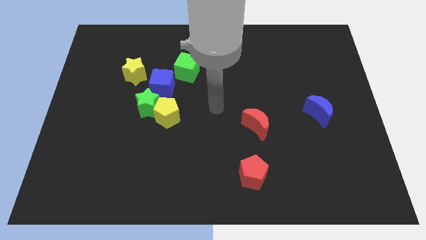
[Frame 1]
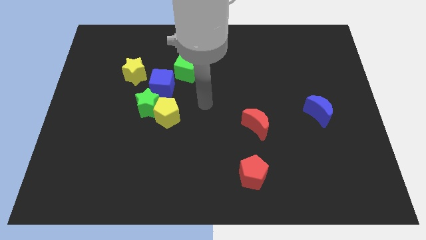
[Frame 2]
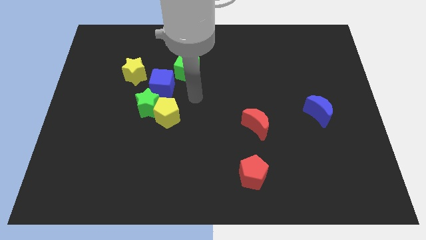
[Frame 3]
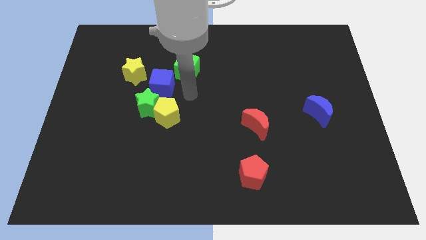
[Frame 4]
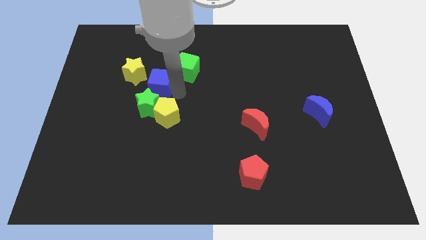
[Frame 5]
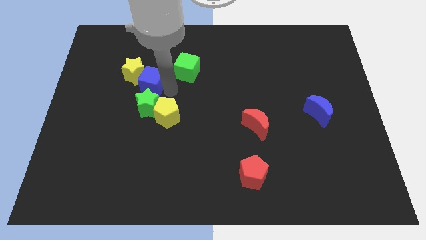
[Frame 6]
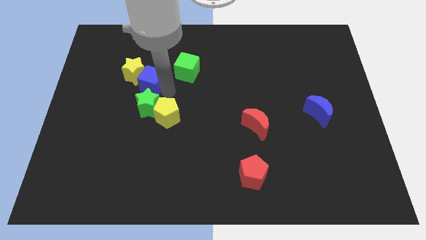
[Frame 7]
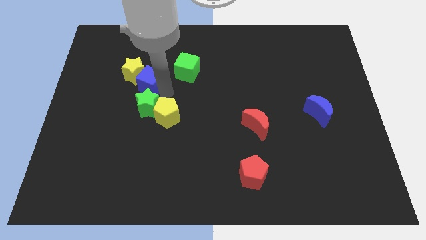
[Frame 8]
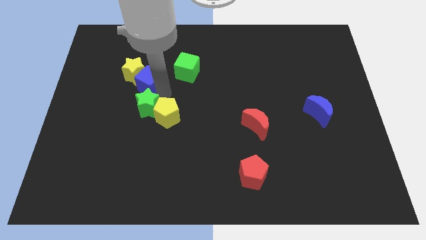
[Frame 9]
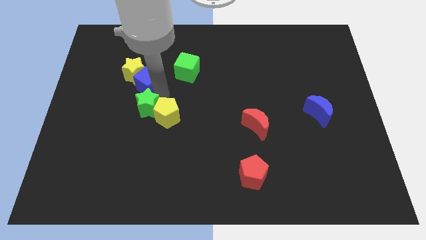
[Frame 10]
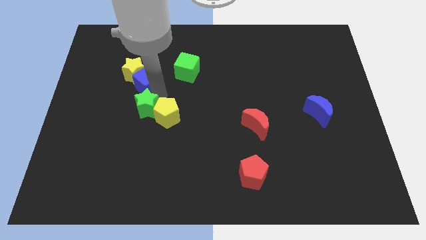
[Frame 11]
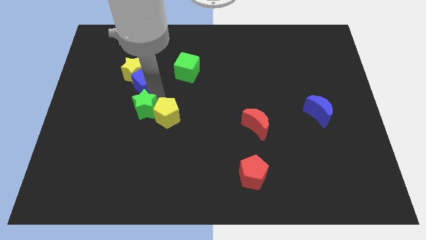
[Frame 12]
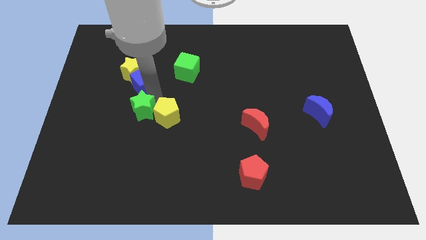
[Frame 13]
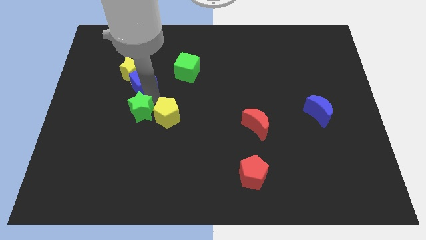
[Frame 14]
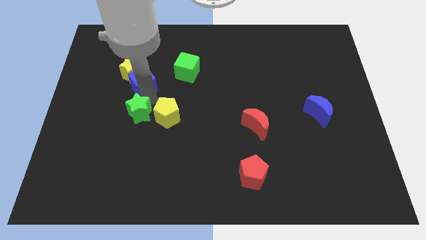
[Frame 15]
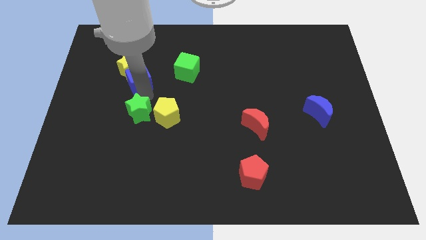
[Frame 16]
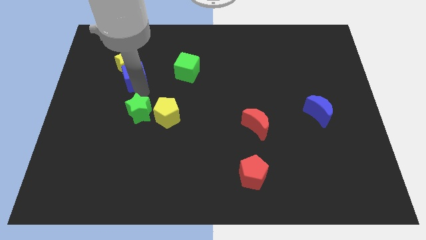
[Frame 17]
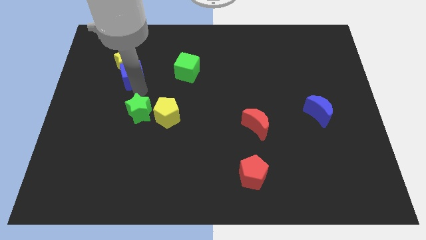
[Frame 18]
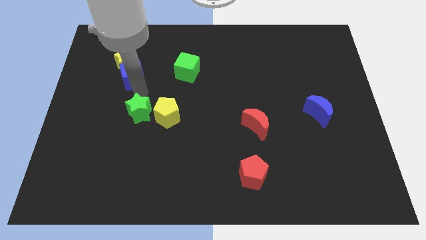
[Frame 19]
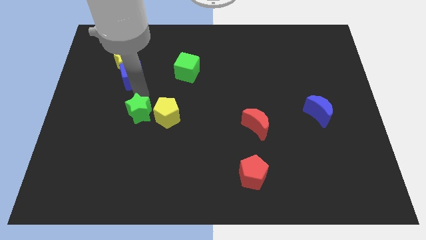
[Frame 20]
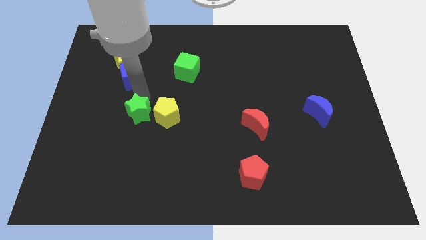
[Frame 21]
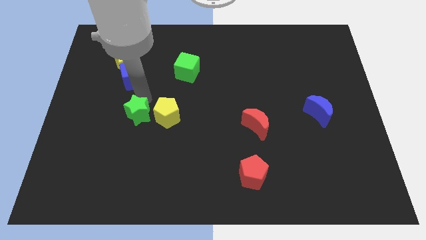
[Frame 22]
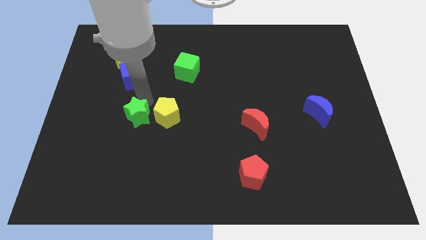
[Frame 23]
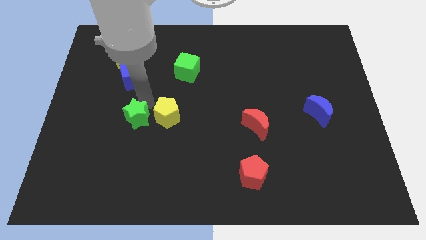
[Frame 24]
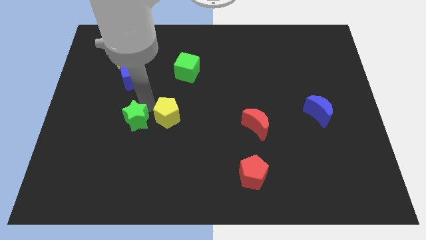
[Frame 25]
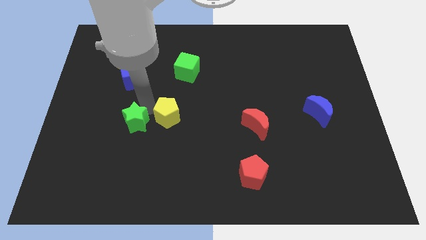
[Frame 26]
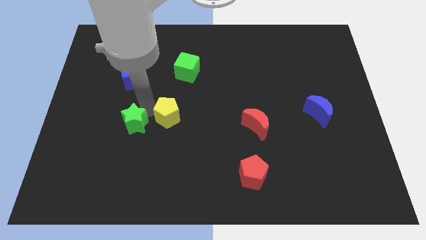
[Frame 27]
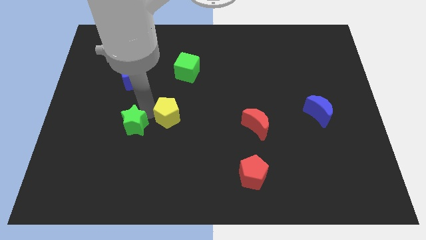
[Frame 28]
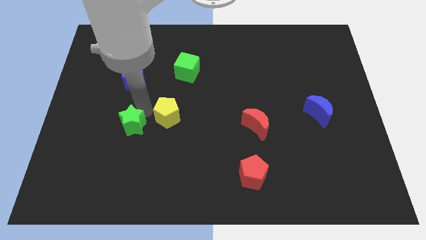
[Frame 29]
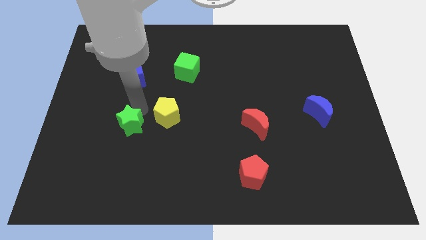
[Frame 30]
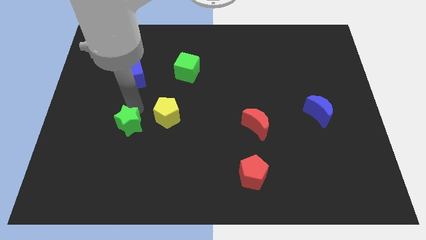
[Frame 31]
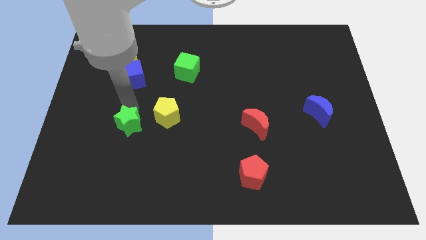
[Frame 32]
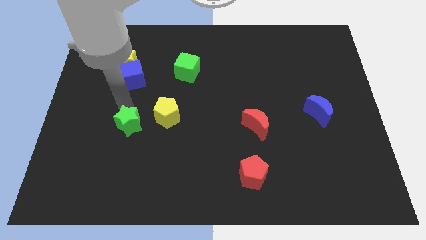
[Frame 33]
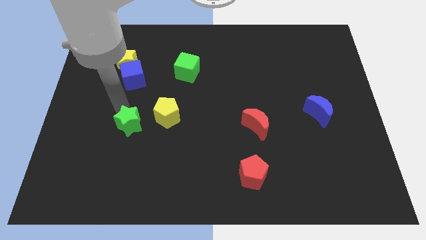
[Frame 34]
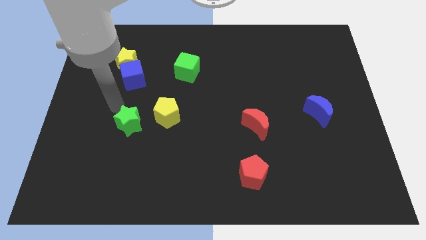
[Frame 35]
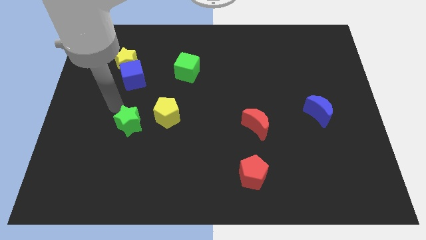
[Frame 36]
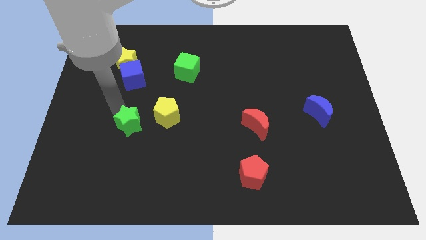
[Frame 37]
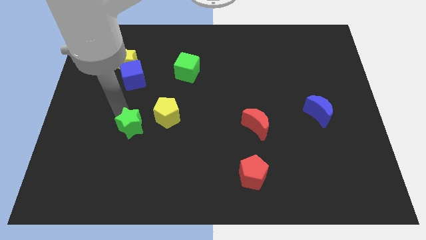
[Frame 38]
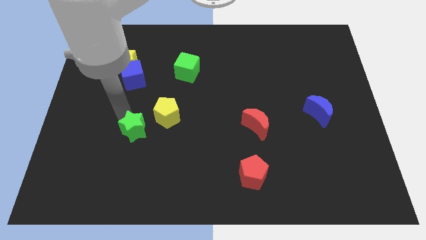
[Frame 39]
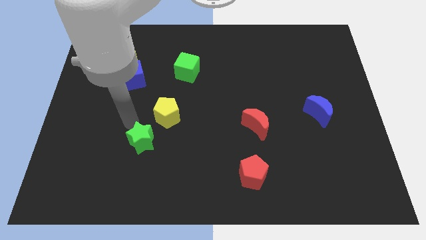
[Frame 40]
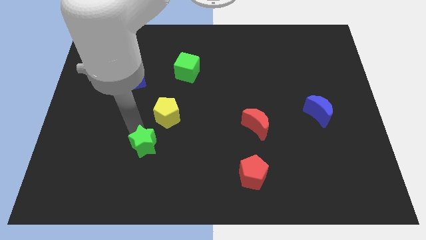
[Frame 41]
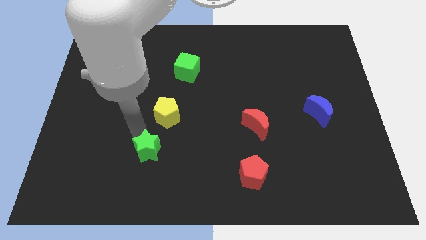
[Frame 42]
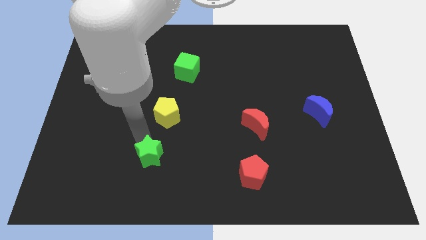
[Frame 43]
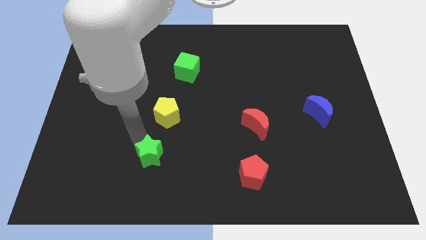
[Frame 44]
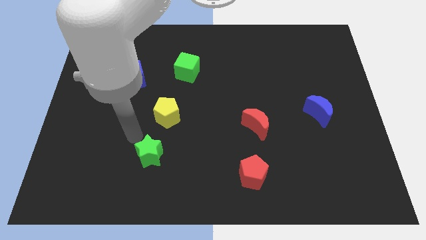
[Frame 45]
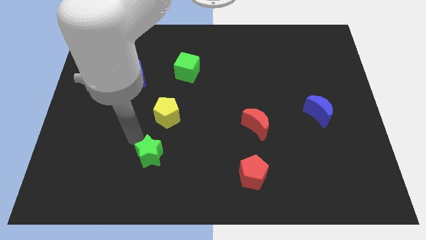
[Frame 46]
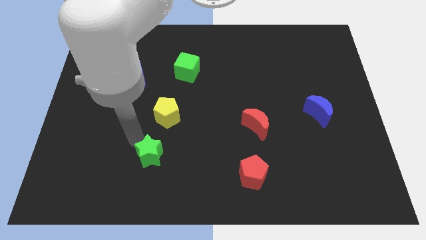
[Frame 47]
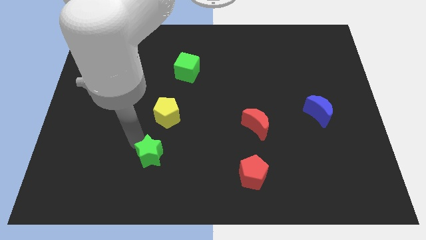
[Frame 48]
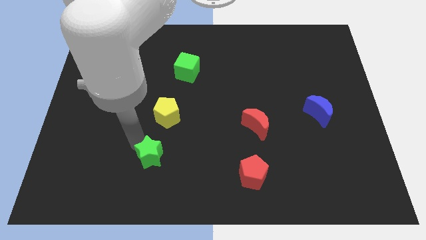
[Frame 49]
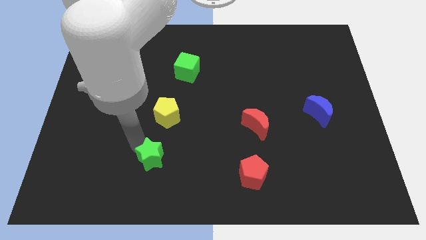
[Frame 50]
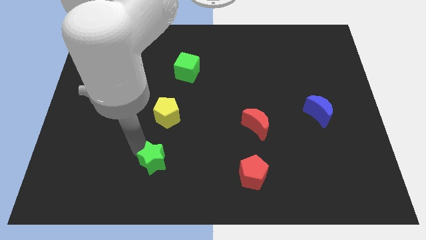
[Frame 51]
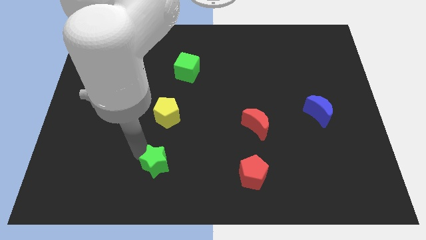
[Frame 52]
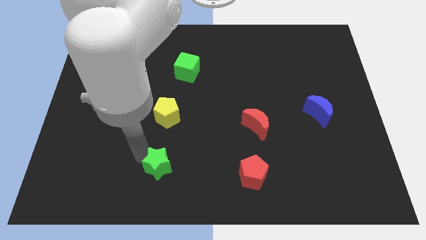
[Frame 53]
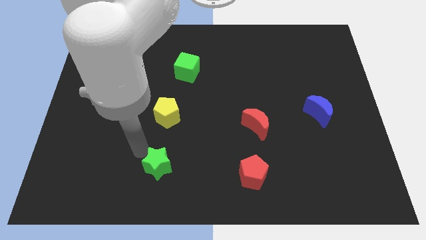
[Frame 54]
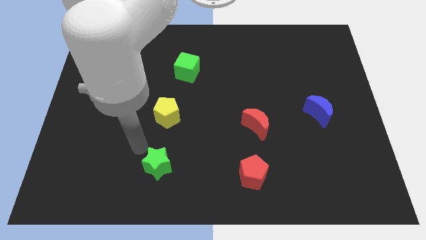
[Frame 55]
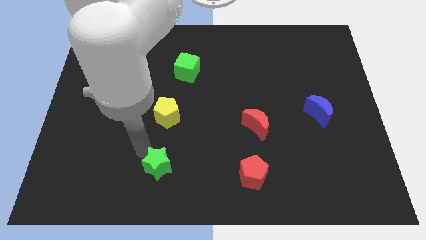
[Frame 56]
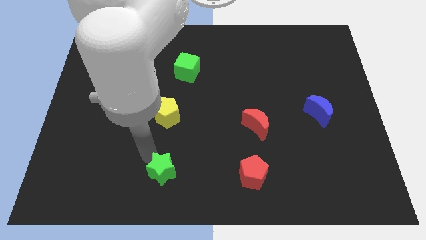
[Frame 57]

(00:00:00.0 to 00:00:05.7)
push the green star to the bottom side

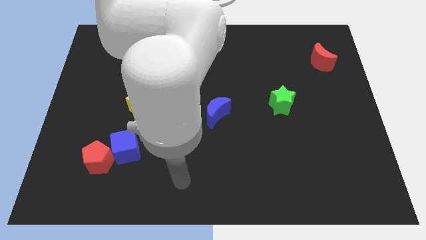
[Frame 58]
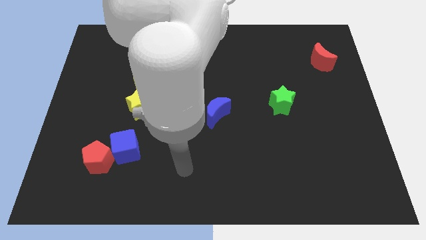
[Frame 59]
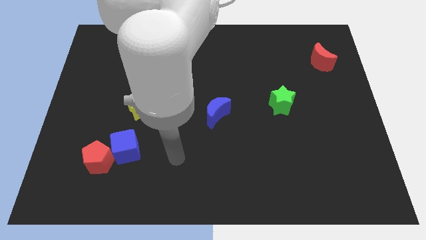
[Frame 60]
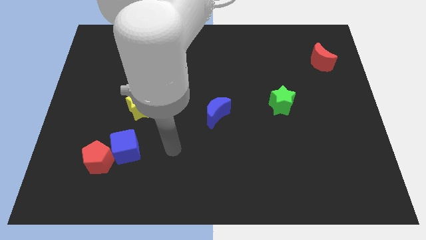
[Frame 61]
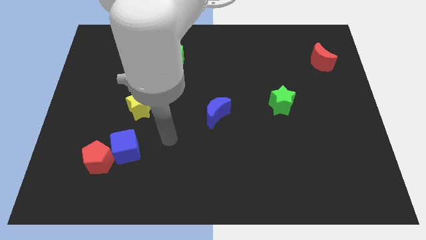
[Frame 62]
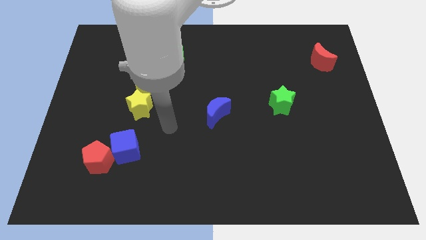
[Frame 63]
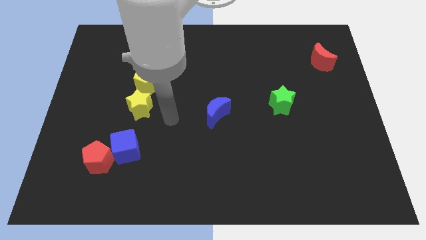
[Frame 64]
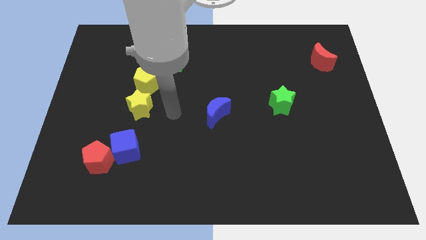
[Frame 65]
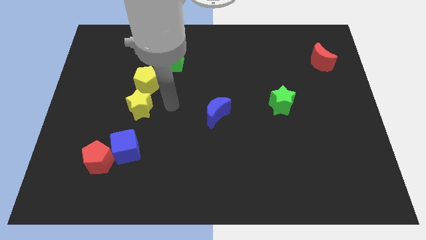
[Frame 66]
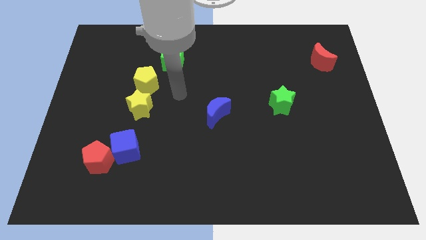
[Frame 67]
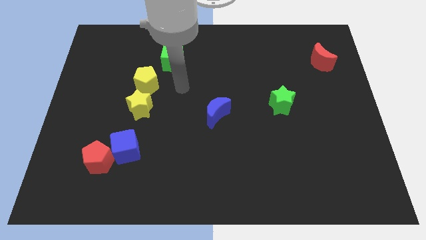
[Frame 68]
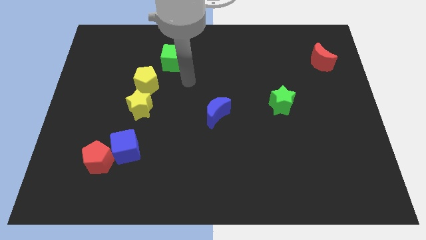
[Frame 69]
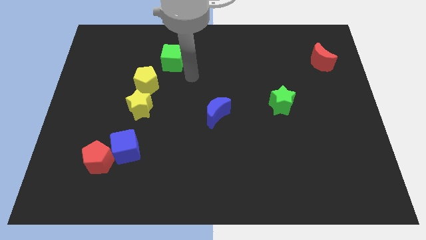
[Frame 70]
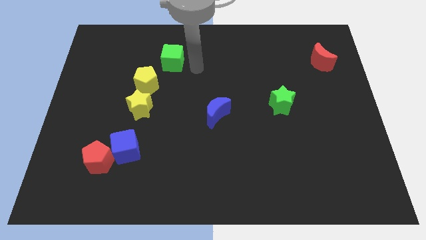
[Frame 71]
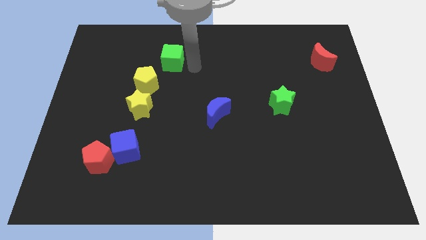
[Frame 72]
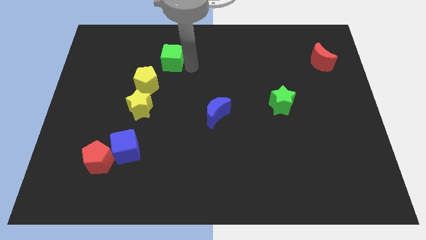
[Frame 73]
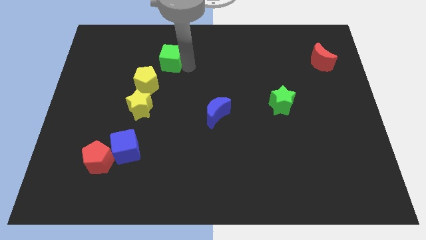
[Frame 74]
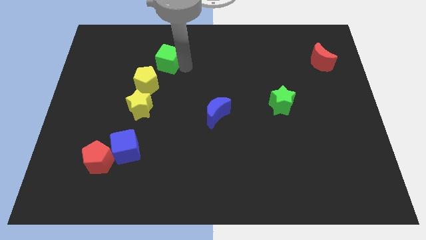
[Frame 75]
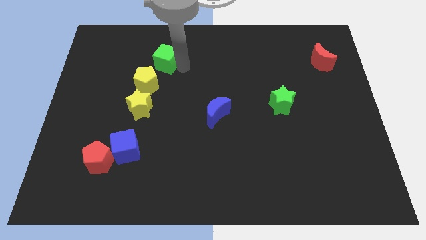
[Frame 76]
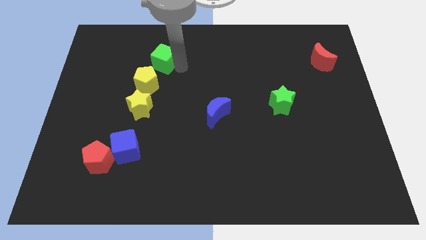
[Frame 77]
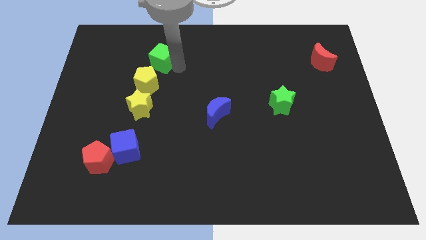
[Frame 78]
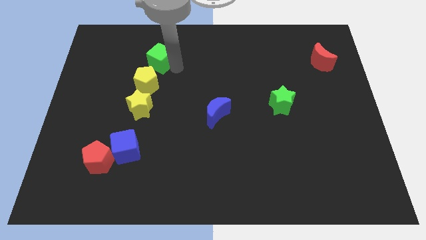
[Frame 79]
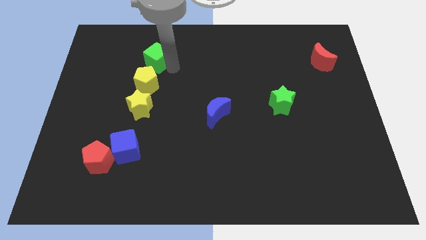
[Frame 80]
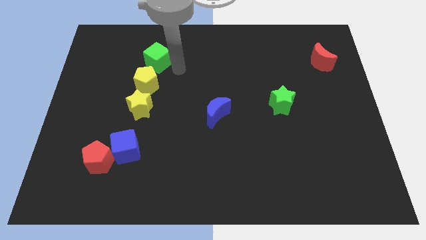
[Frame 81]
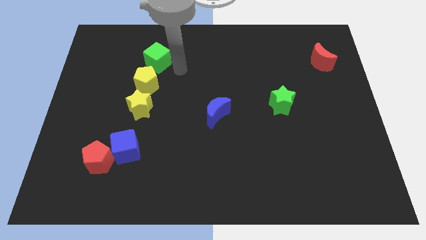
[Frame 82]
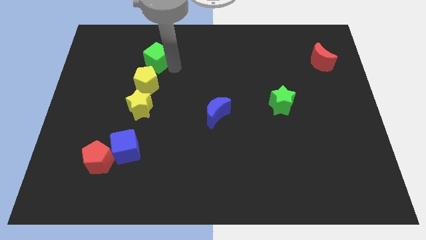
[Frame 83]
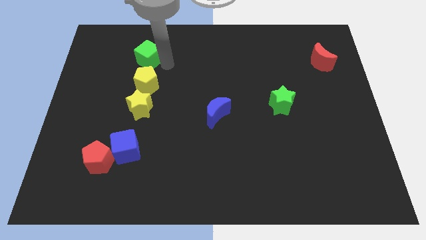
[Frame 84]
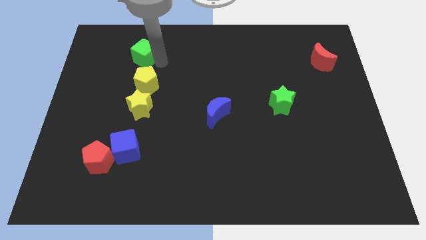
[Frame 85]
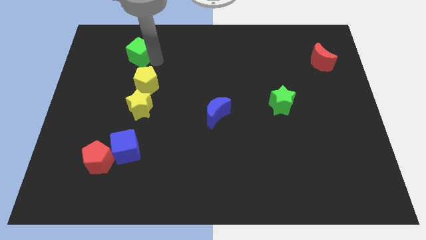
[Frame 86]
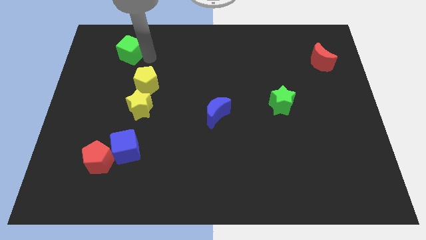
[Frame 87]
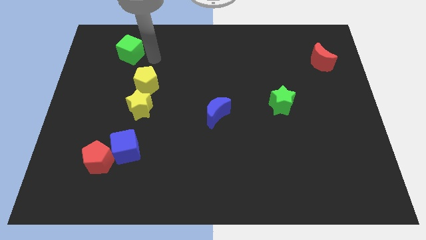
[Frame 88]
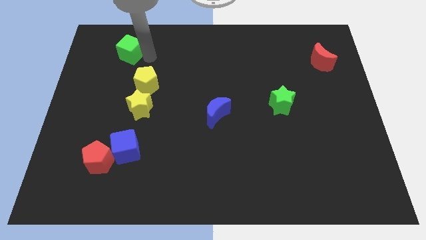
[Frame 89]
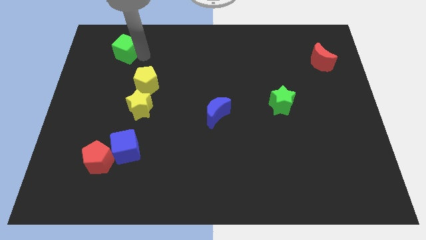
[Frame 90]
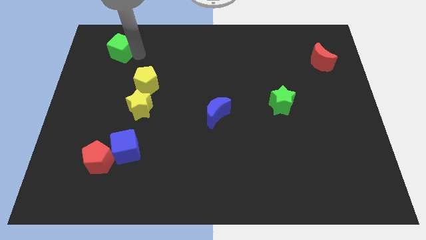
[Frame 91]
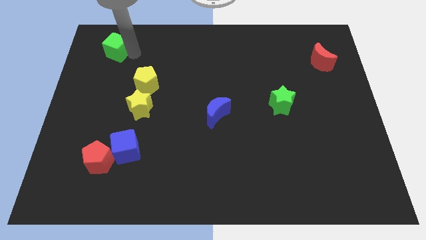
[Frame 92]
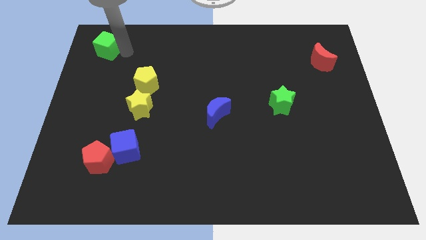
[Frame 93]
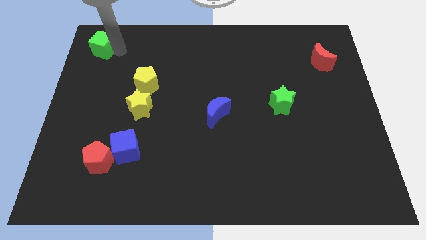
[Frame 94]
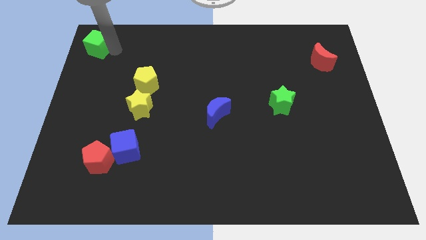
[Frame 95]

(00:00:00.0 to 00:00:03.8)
put the green cube to the top left corner
